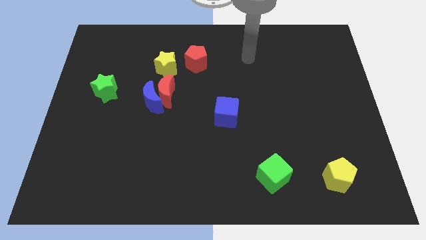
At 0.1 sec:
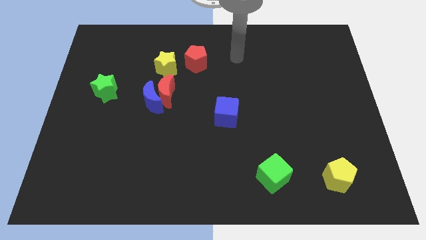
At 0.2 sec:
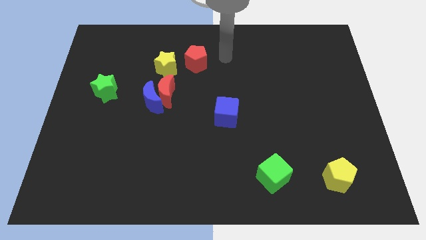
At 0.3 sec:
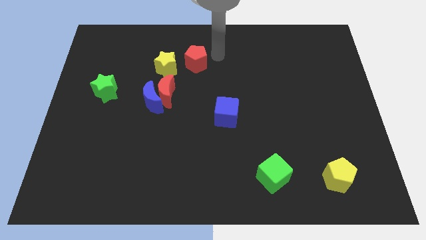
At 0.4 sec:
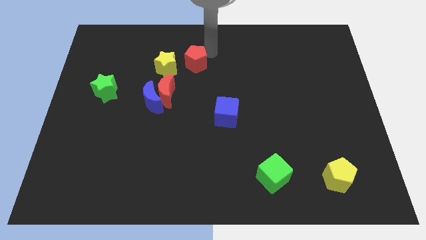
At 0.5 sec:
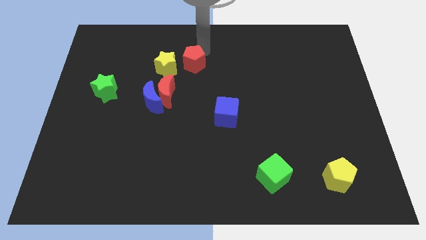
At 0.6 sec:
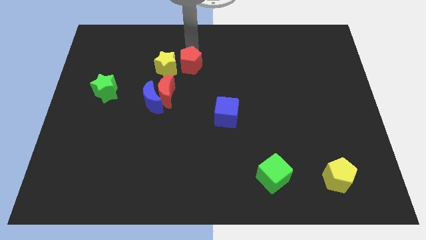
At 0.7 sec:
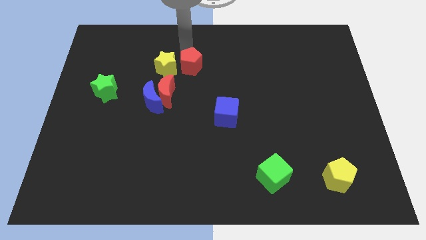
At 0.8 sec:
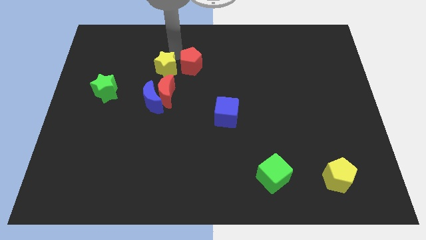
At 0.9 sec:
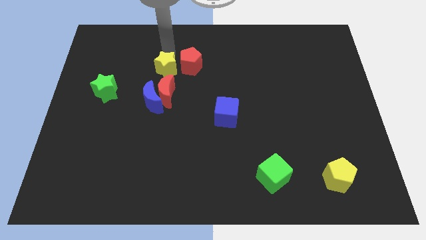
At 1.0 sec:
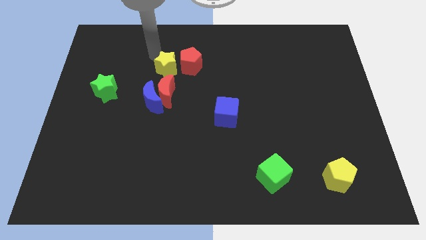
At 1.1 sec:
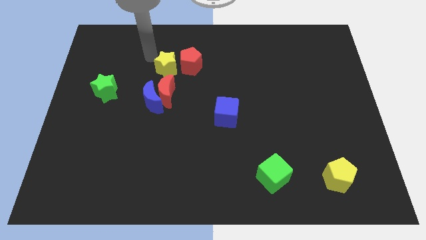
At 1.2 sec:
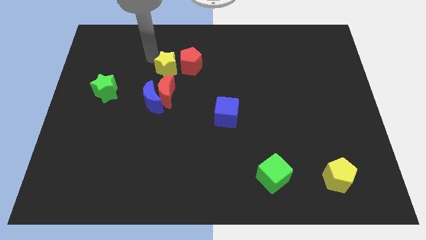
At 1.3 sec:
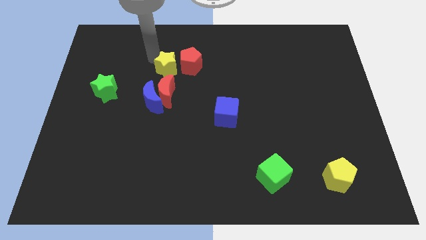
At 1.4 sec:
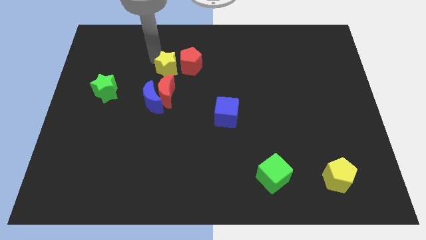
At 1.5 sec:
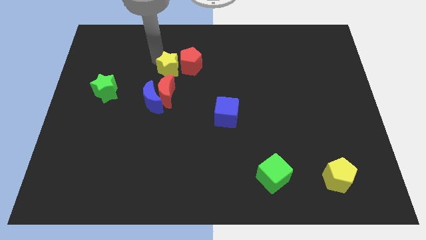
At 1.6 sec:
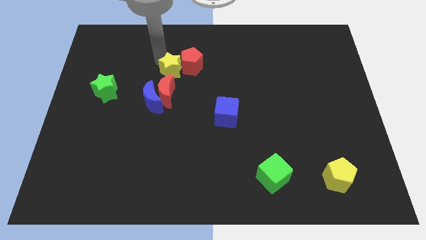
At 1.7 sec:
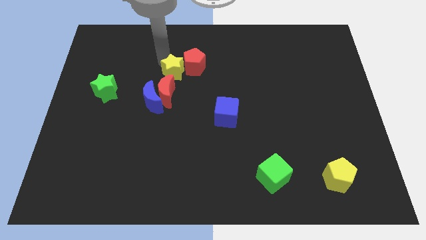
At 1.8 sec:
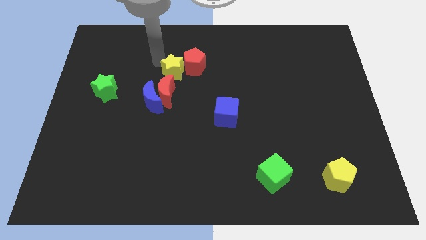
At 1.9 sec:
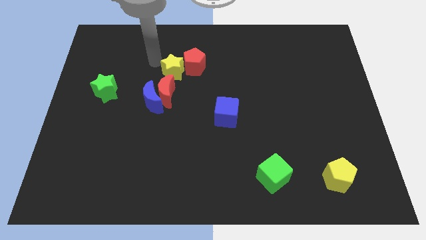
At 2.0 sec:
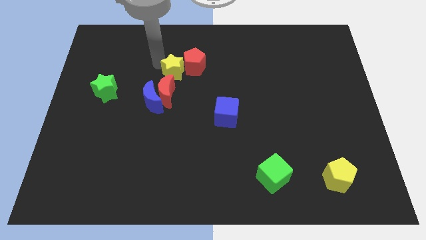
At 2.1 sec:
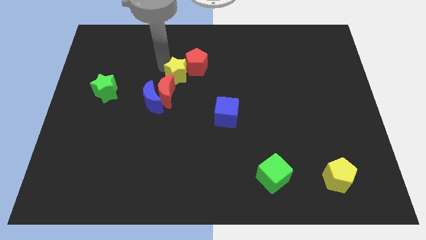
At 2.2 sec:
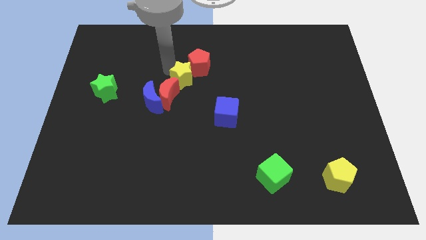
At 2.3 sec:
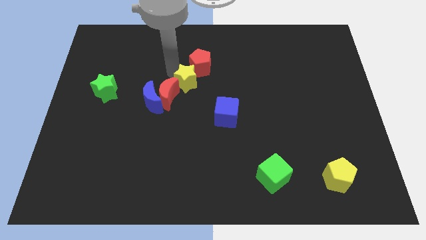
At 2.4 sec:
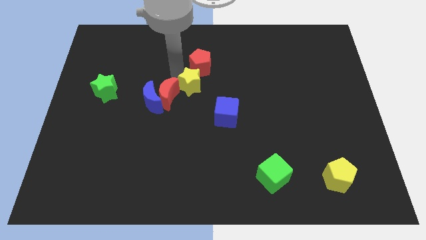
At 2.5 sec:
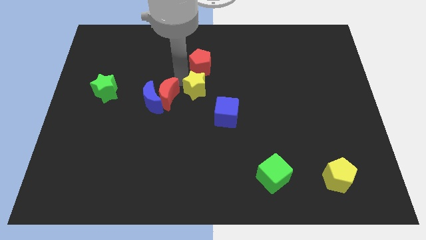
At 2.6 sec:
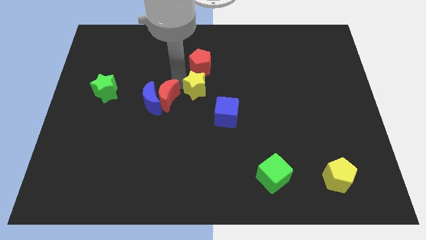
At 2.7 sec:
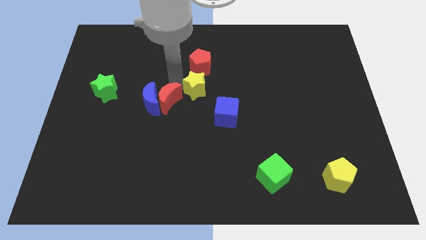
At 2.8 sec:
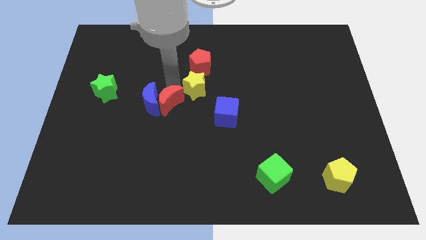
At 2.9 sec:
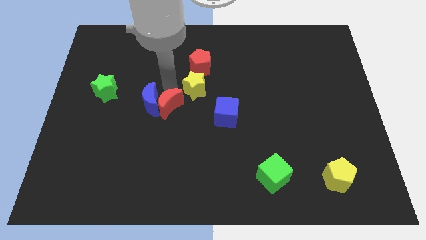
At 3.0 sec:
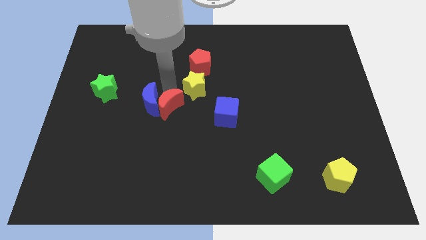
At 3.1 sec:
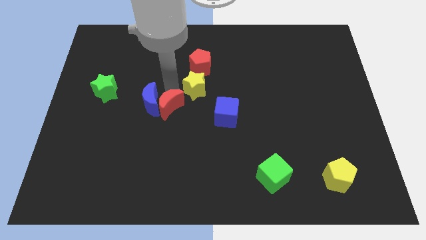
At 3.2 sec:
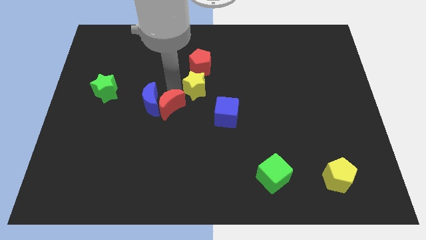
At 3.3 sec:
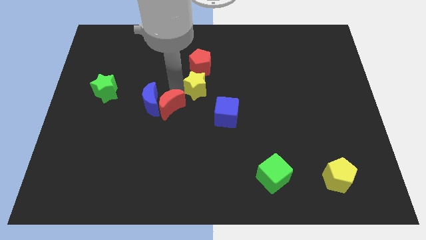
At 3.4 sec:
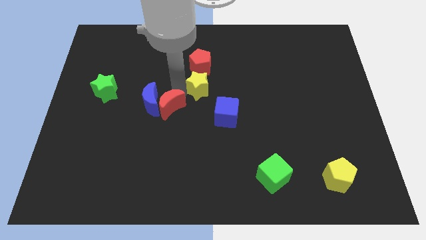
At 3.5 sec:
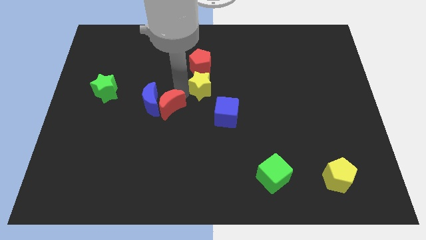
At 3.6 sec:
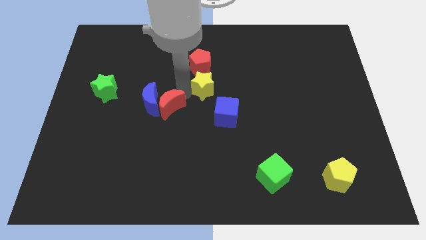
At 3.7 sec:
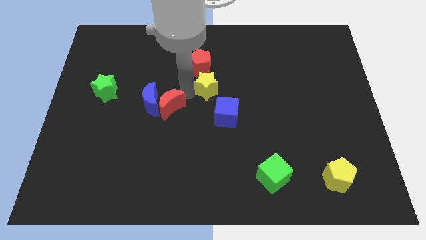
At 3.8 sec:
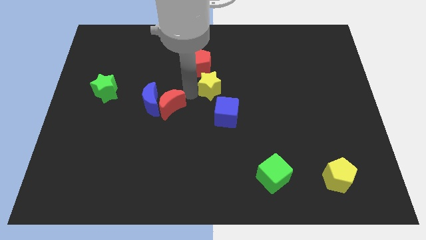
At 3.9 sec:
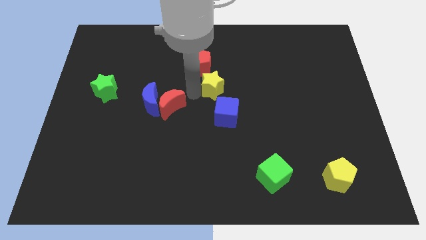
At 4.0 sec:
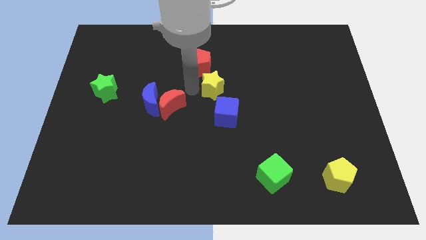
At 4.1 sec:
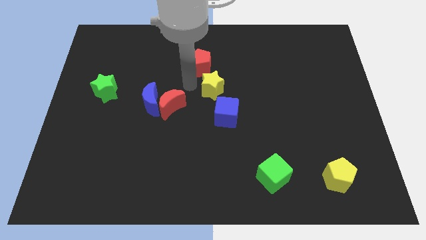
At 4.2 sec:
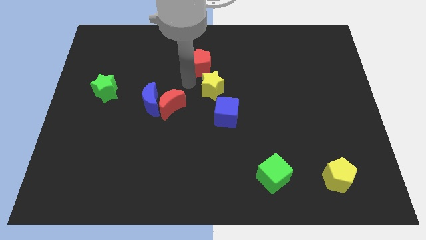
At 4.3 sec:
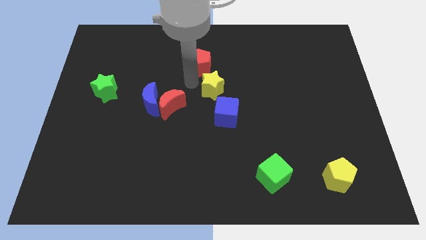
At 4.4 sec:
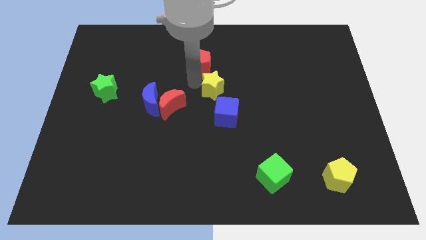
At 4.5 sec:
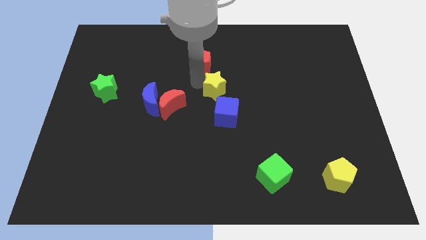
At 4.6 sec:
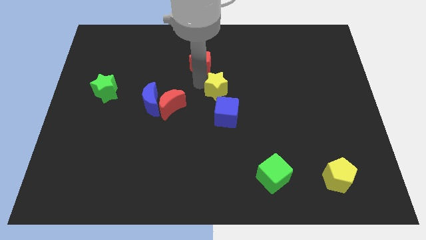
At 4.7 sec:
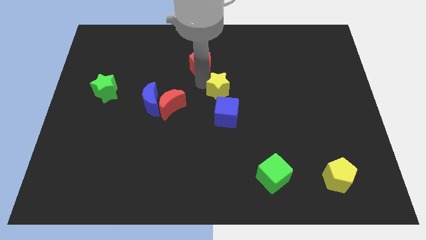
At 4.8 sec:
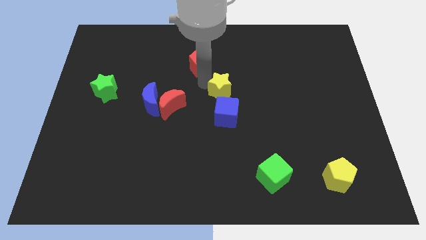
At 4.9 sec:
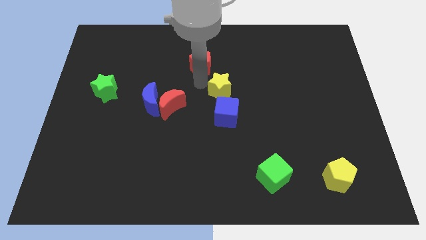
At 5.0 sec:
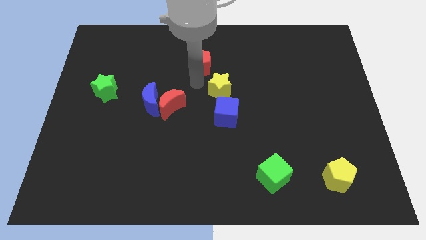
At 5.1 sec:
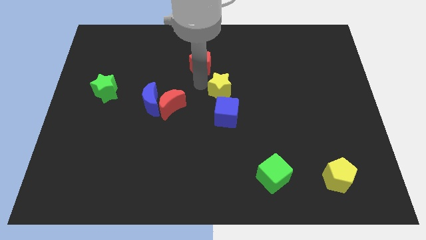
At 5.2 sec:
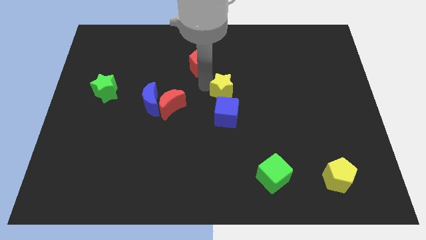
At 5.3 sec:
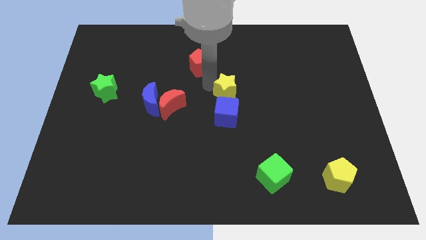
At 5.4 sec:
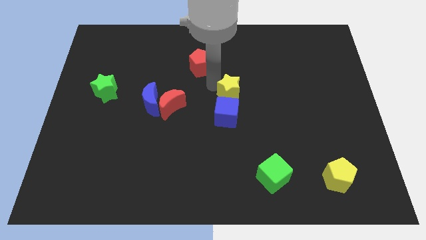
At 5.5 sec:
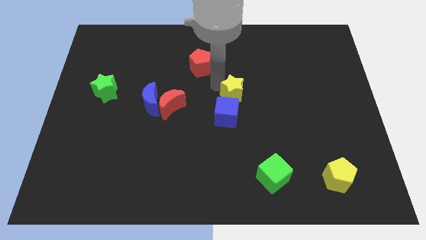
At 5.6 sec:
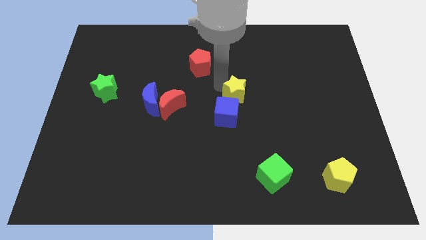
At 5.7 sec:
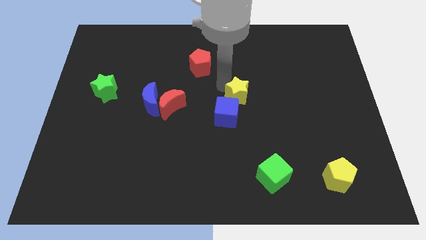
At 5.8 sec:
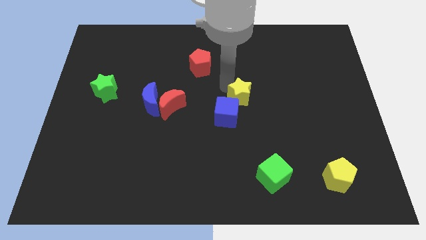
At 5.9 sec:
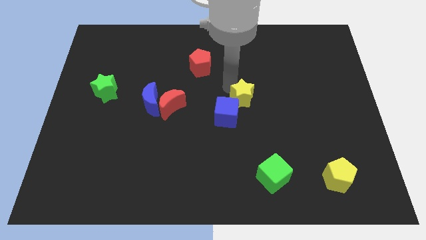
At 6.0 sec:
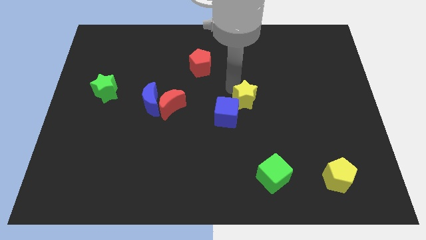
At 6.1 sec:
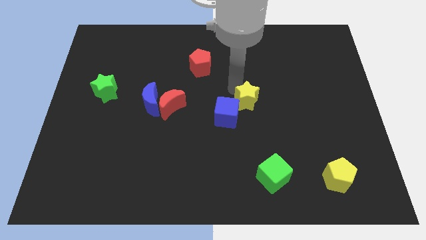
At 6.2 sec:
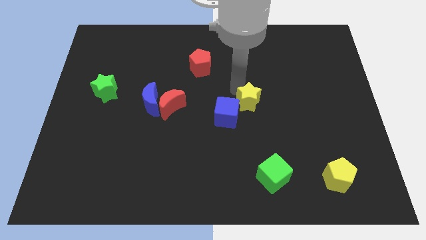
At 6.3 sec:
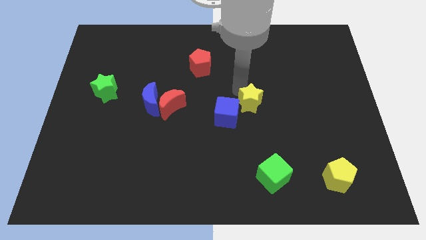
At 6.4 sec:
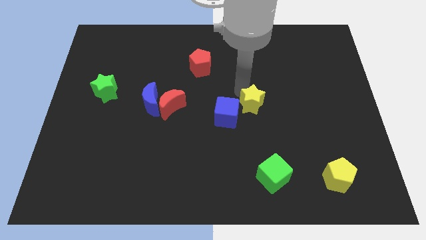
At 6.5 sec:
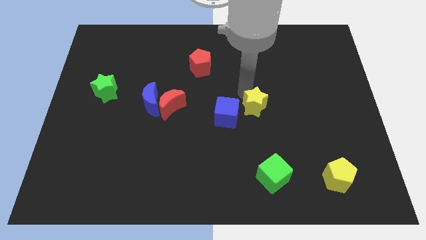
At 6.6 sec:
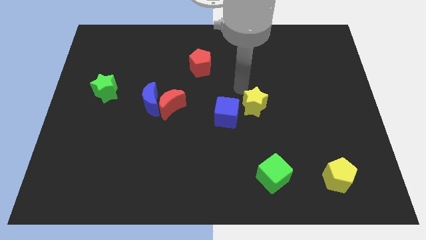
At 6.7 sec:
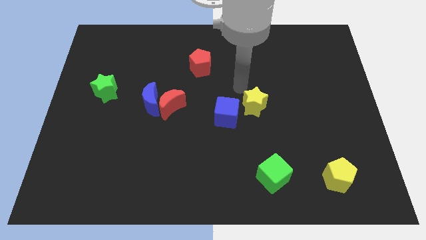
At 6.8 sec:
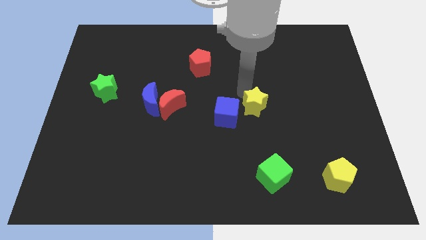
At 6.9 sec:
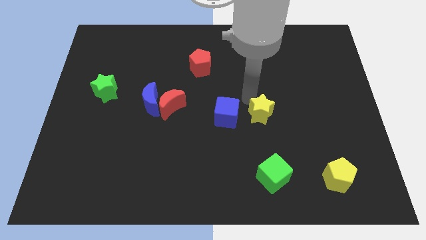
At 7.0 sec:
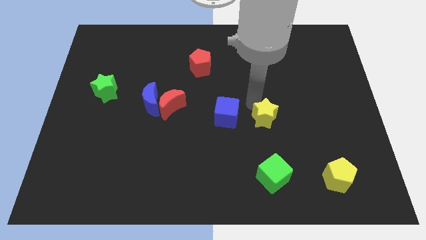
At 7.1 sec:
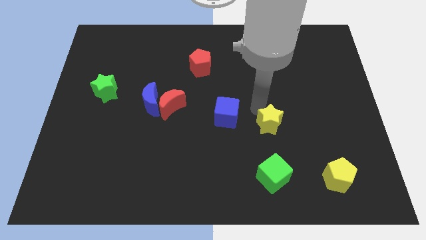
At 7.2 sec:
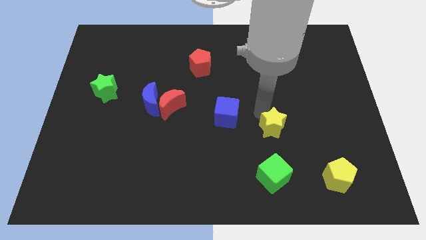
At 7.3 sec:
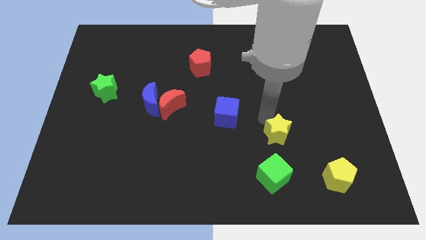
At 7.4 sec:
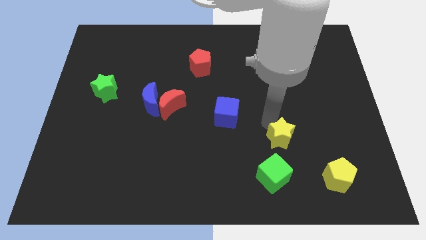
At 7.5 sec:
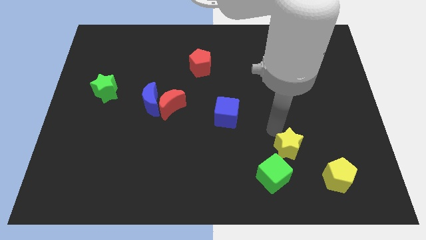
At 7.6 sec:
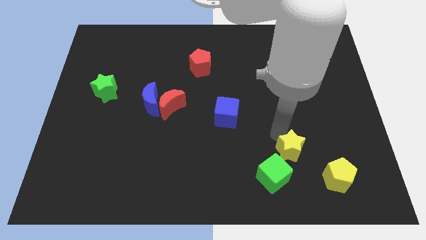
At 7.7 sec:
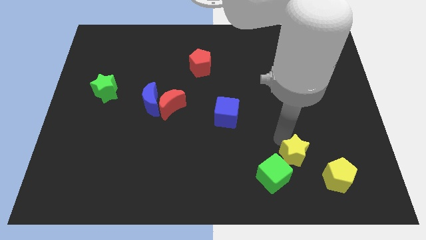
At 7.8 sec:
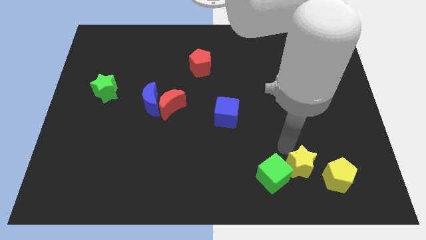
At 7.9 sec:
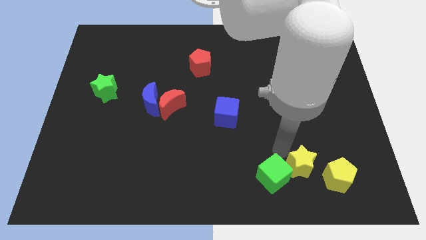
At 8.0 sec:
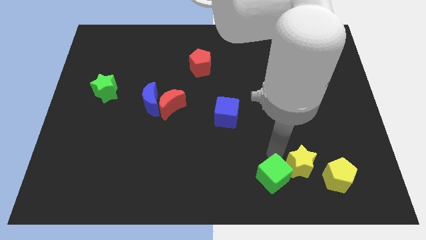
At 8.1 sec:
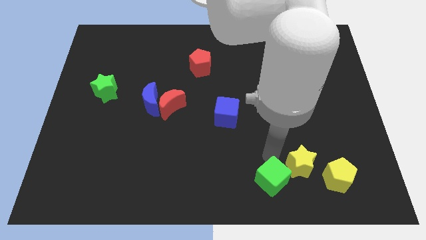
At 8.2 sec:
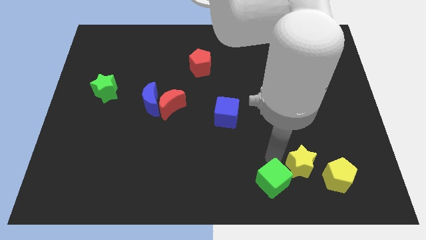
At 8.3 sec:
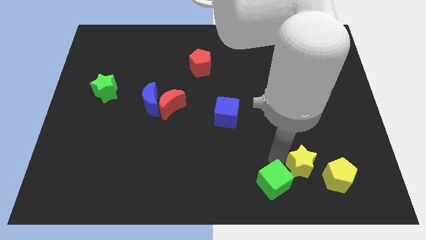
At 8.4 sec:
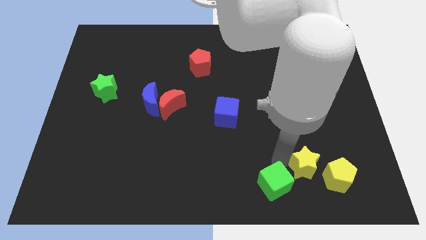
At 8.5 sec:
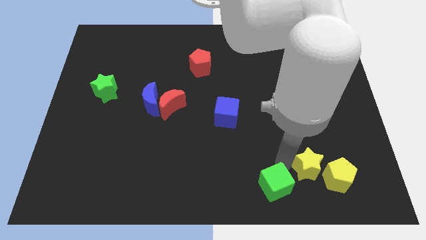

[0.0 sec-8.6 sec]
put the yellow star towards the yellow pentagon
